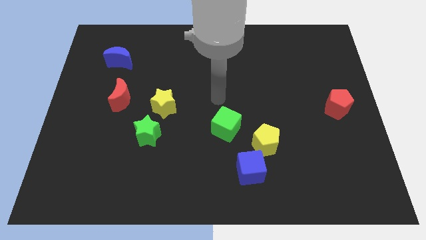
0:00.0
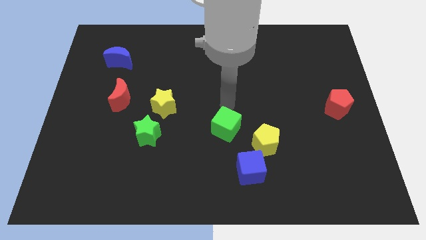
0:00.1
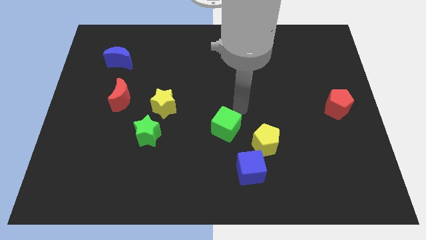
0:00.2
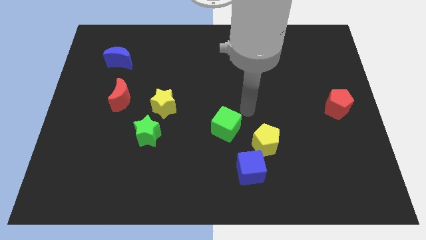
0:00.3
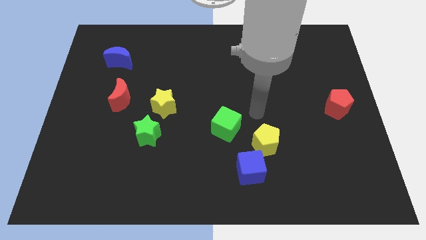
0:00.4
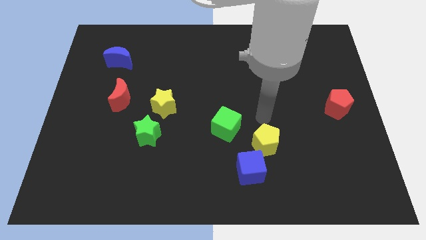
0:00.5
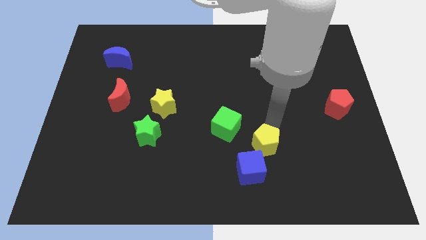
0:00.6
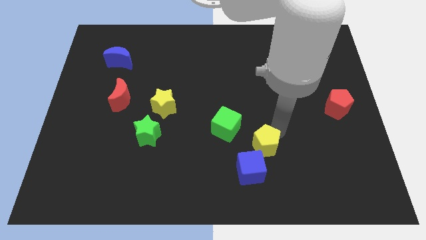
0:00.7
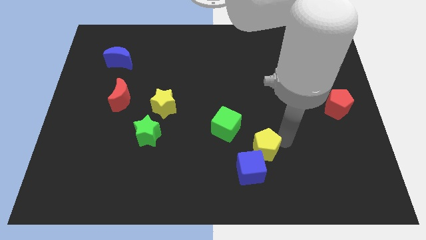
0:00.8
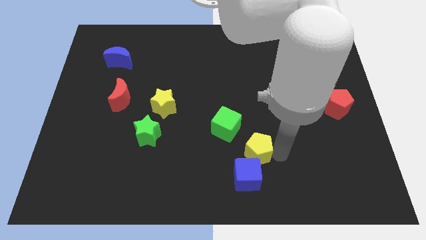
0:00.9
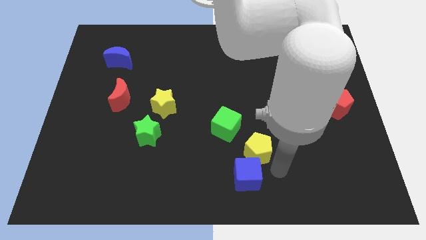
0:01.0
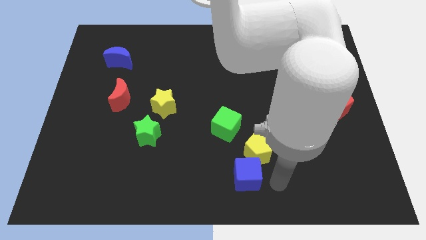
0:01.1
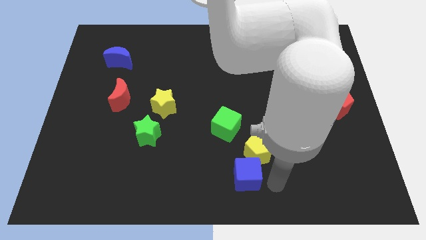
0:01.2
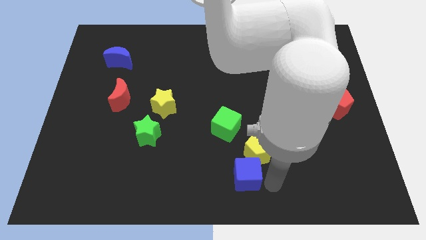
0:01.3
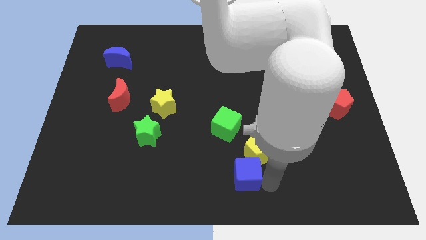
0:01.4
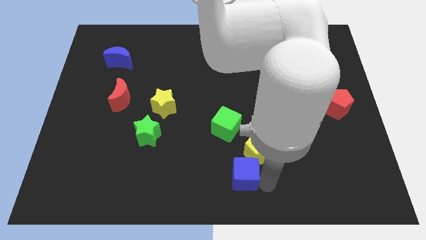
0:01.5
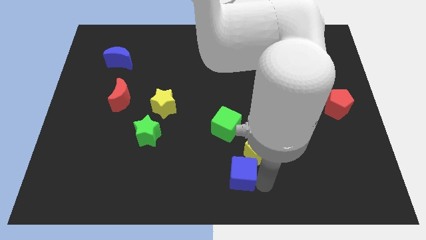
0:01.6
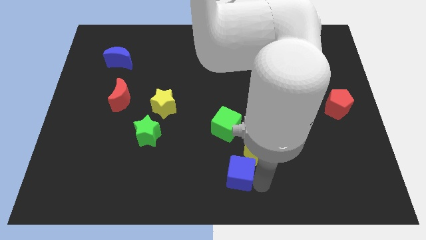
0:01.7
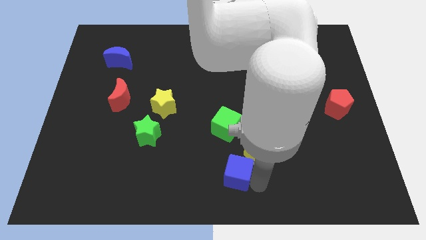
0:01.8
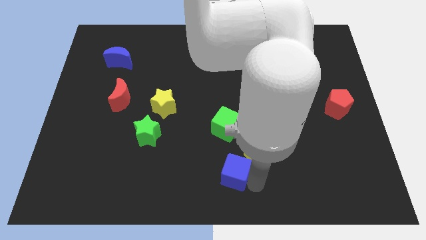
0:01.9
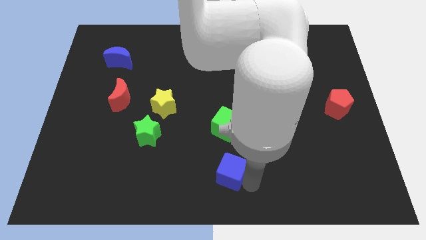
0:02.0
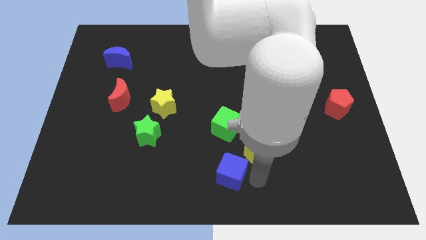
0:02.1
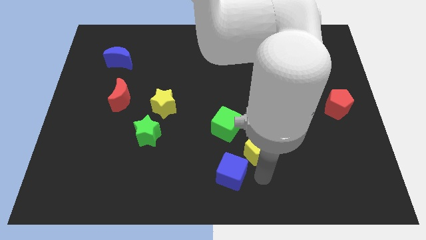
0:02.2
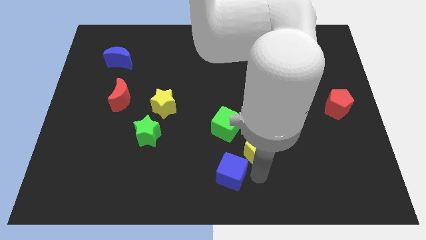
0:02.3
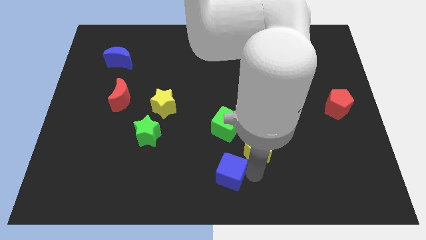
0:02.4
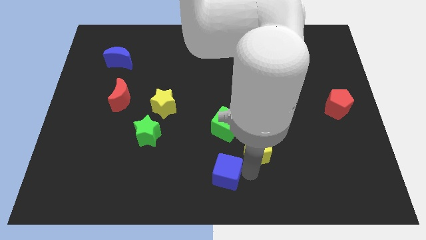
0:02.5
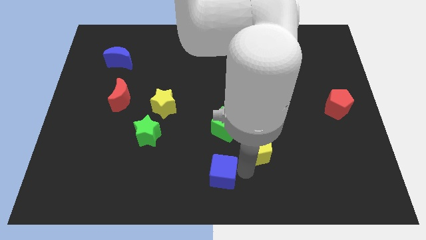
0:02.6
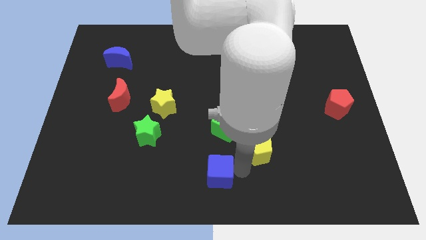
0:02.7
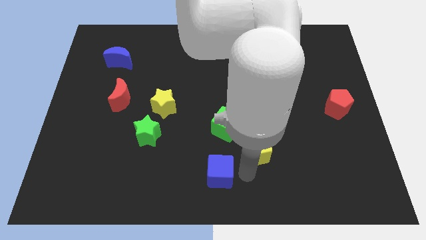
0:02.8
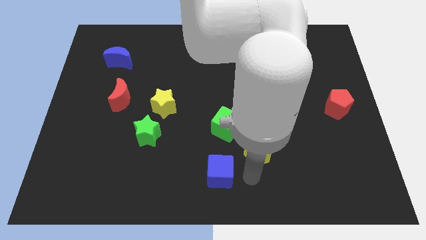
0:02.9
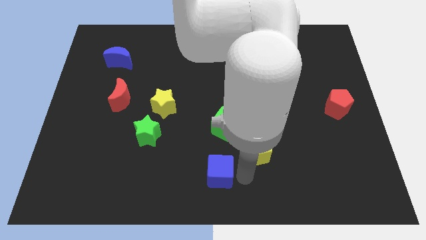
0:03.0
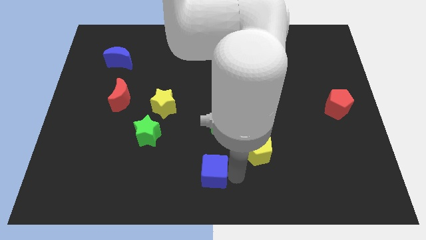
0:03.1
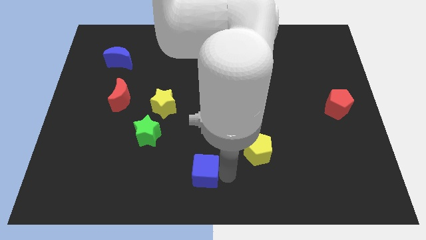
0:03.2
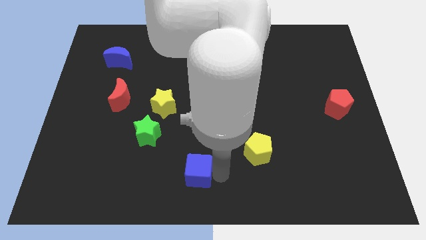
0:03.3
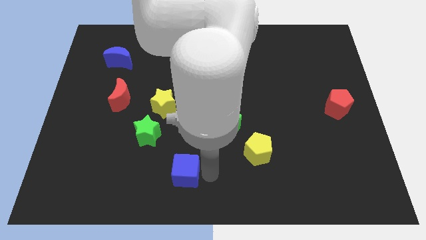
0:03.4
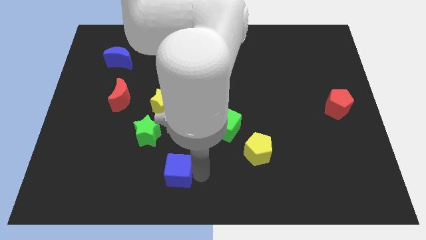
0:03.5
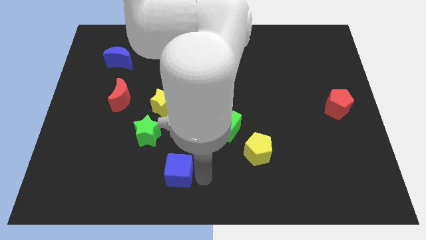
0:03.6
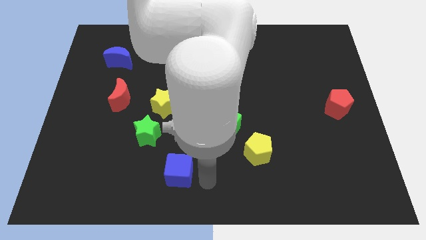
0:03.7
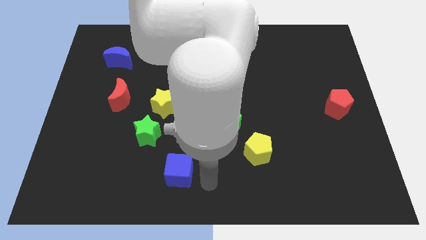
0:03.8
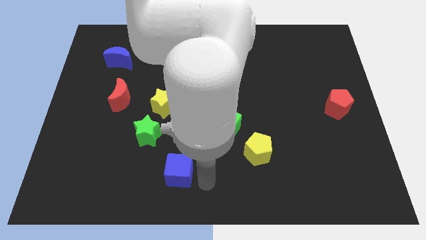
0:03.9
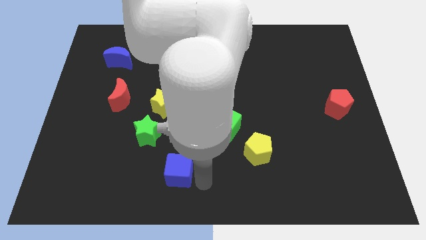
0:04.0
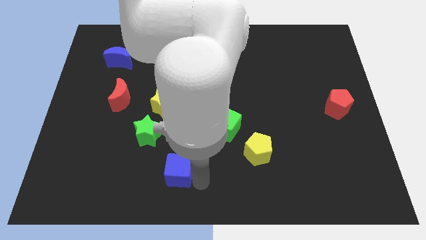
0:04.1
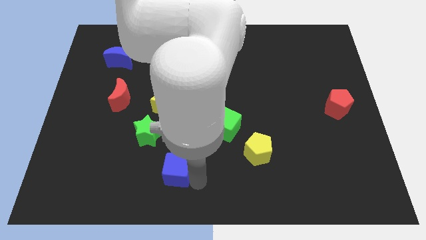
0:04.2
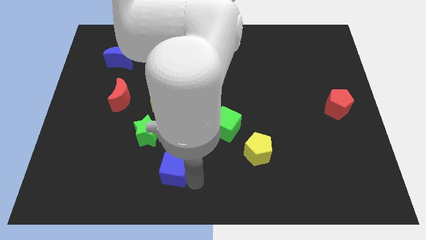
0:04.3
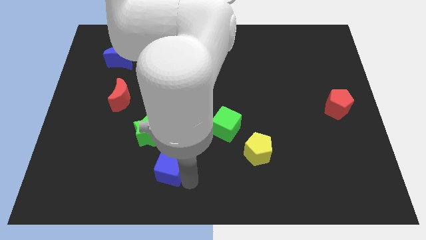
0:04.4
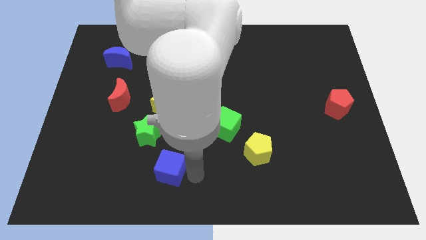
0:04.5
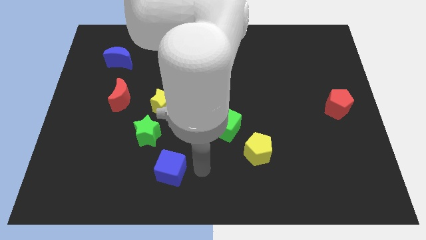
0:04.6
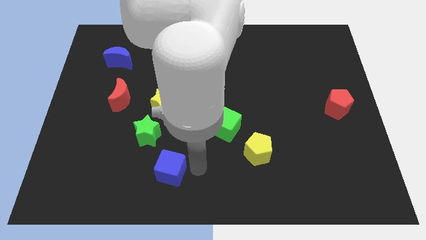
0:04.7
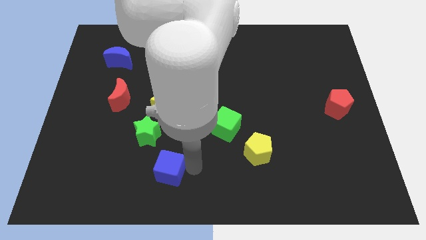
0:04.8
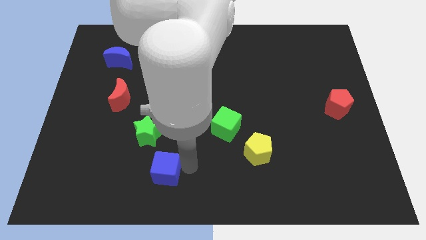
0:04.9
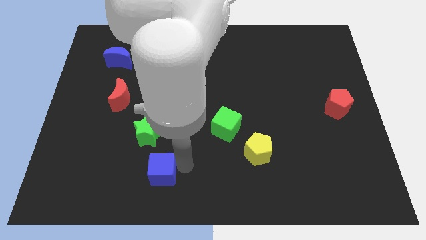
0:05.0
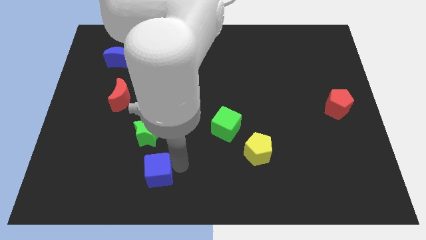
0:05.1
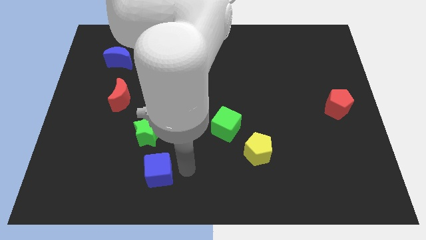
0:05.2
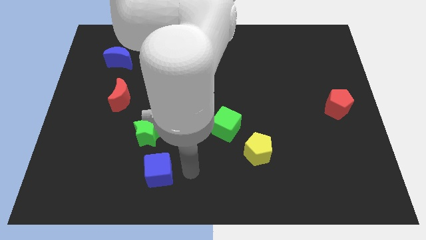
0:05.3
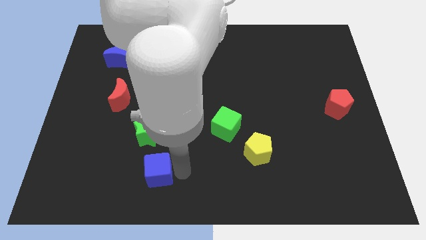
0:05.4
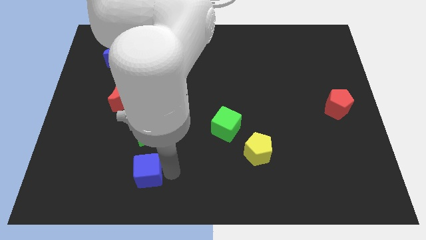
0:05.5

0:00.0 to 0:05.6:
push the blue cube to the left

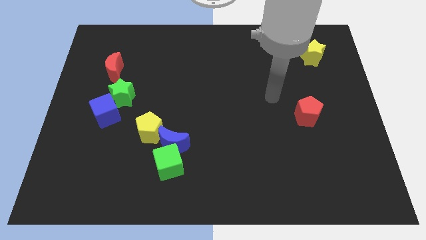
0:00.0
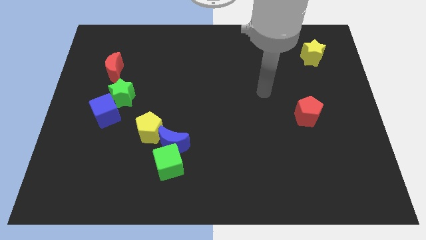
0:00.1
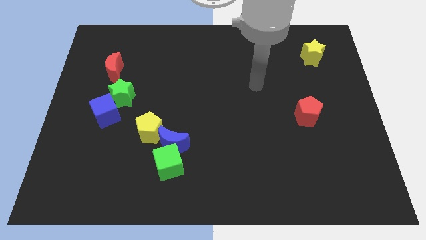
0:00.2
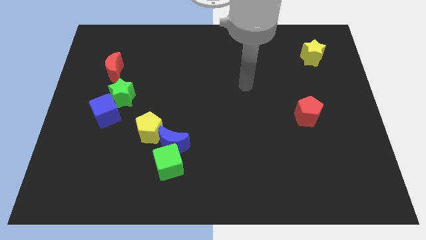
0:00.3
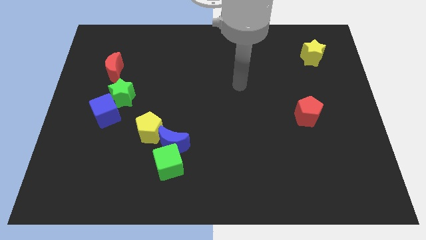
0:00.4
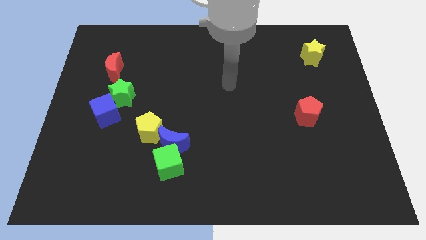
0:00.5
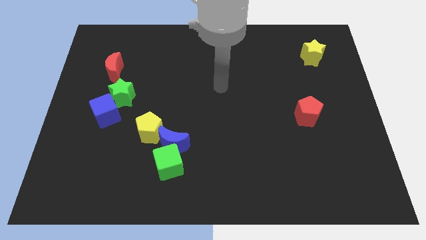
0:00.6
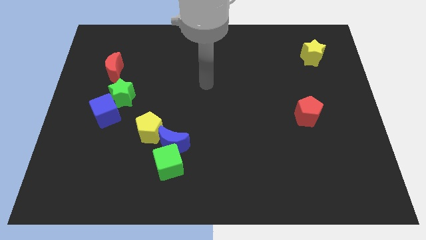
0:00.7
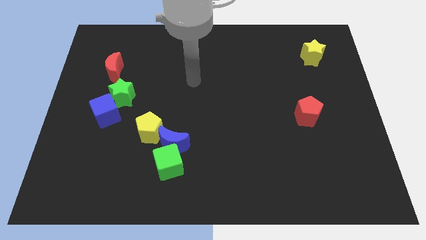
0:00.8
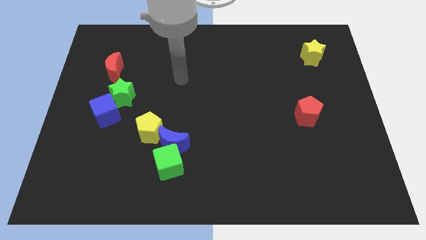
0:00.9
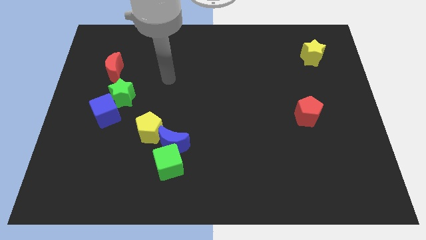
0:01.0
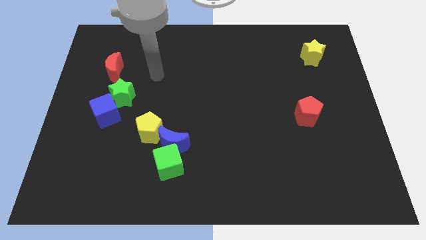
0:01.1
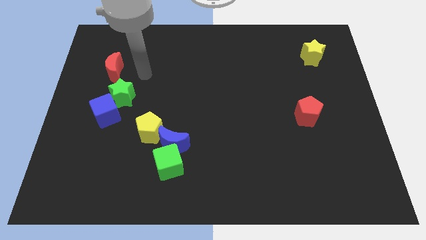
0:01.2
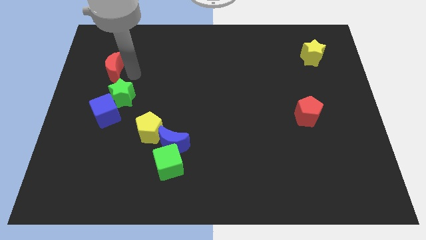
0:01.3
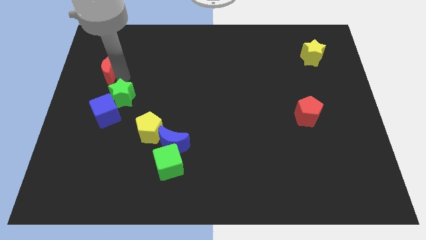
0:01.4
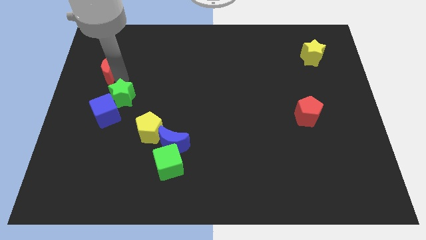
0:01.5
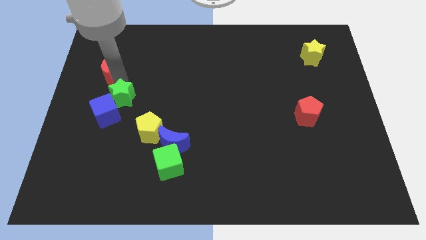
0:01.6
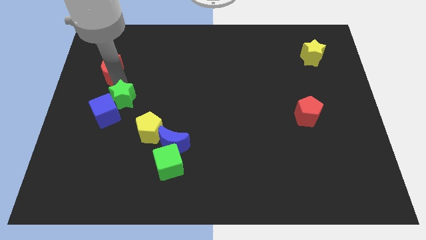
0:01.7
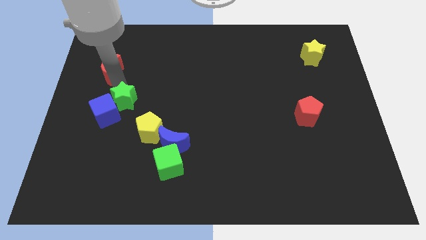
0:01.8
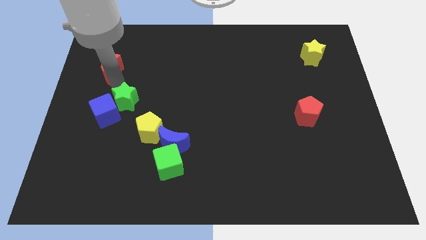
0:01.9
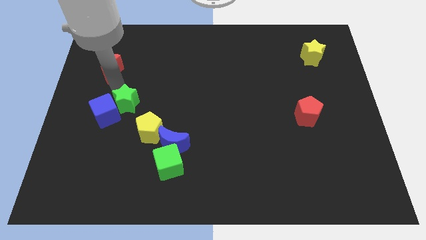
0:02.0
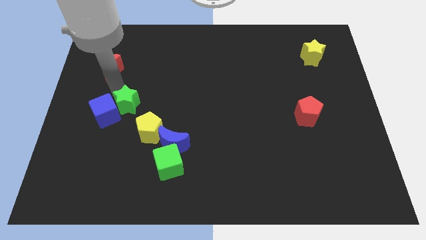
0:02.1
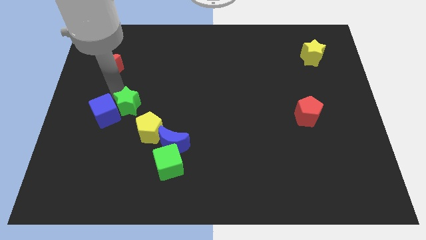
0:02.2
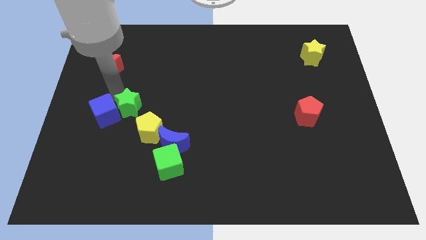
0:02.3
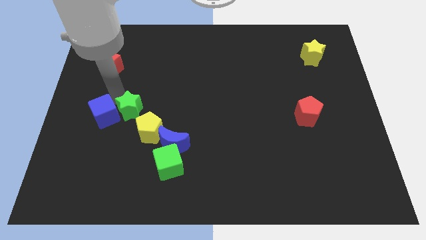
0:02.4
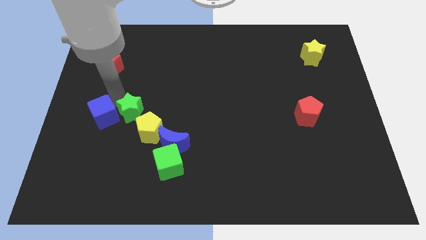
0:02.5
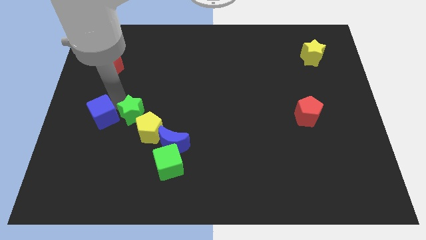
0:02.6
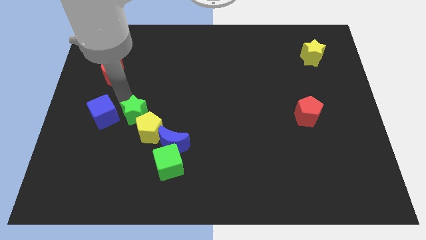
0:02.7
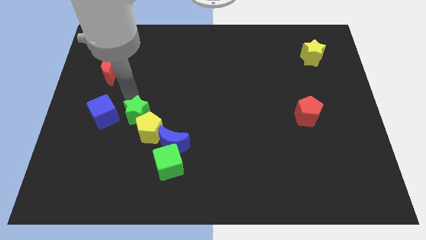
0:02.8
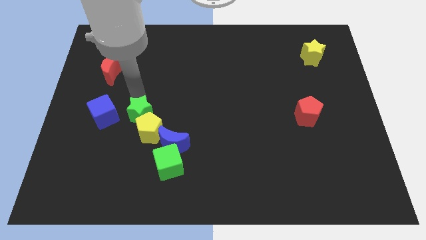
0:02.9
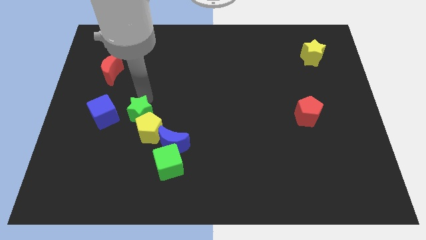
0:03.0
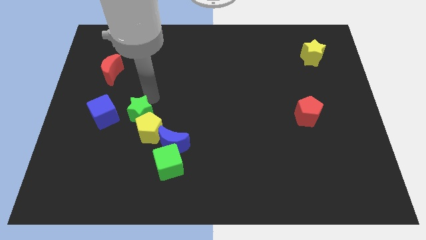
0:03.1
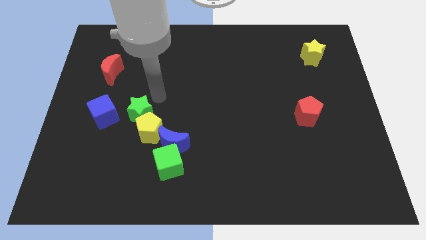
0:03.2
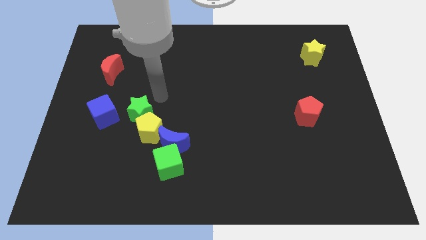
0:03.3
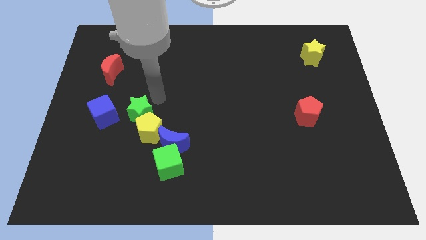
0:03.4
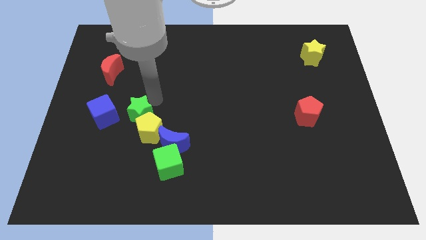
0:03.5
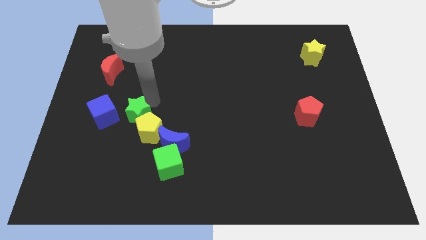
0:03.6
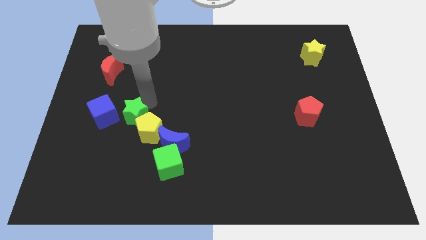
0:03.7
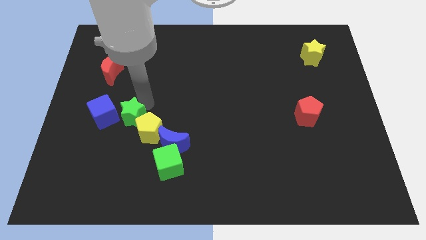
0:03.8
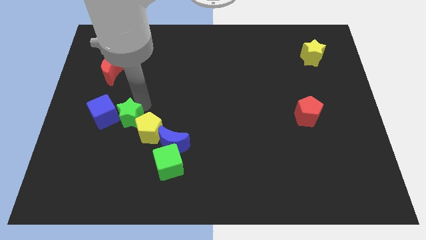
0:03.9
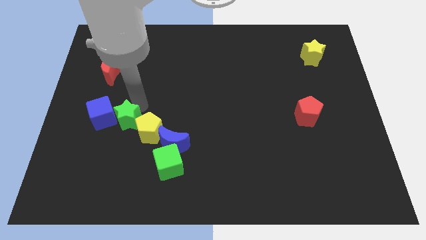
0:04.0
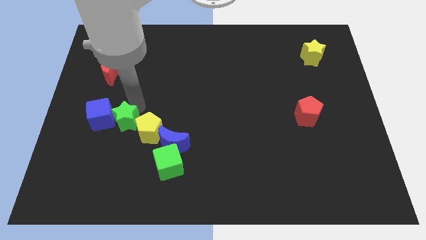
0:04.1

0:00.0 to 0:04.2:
slightly slide the green star downwards
